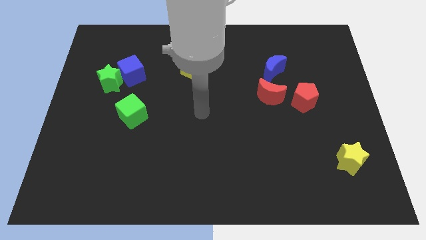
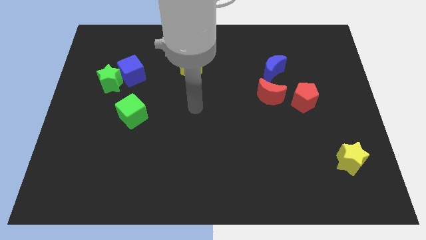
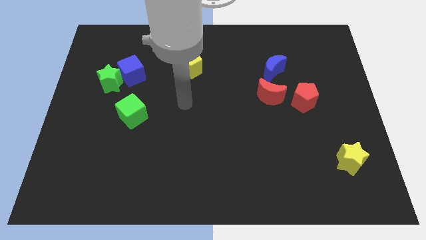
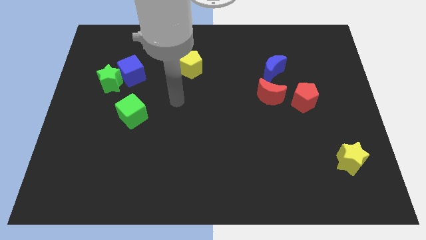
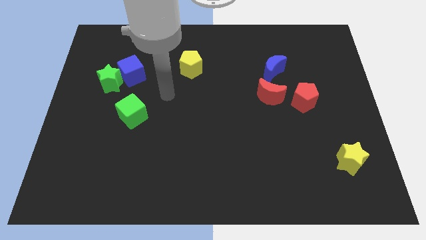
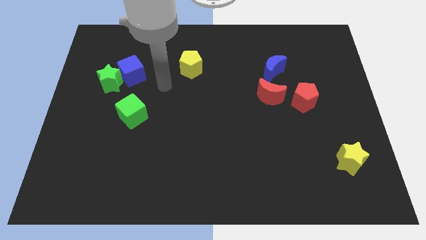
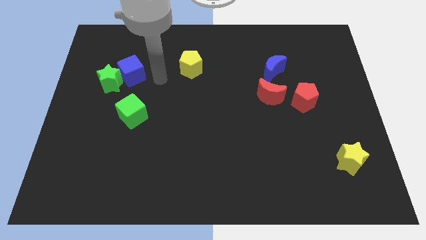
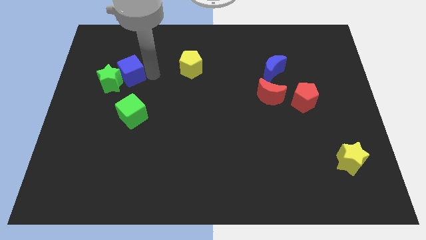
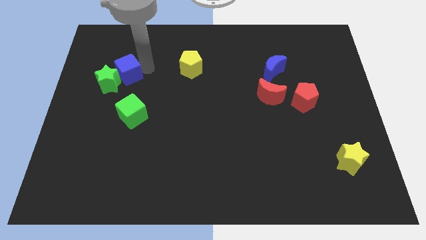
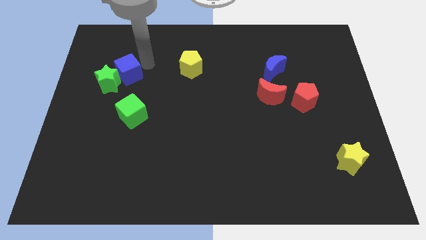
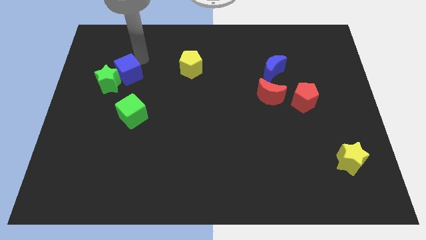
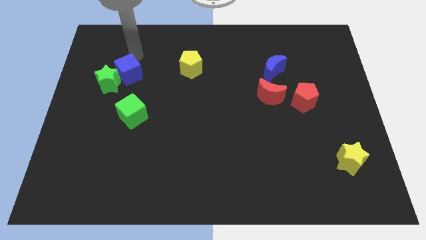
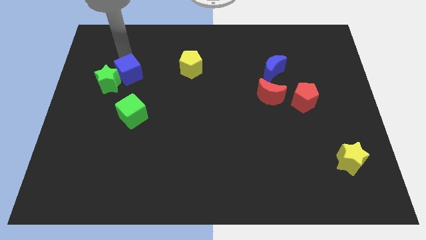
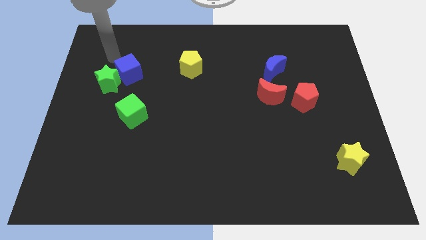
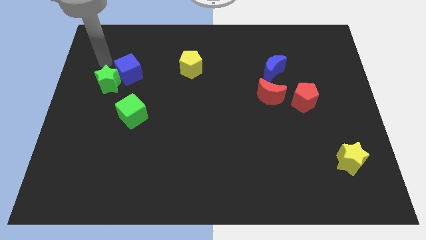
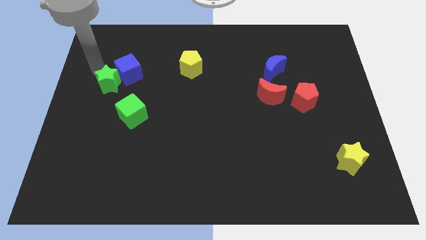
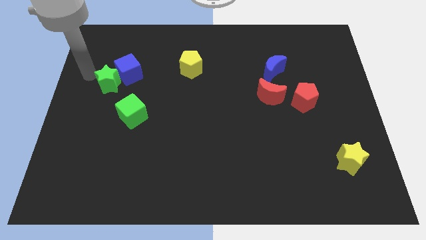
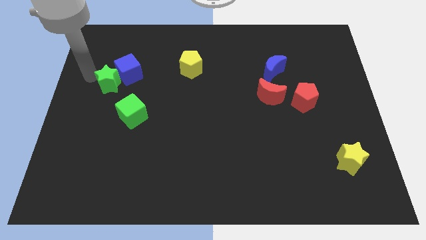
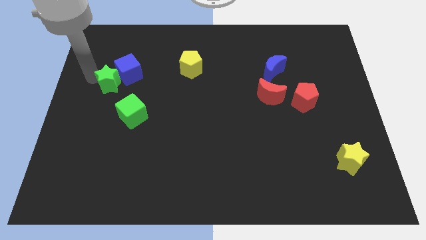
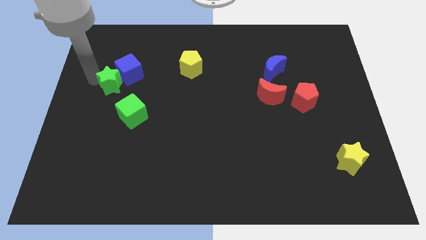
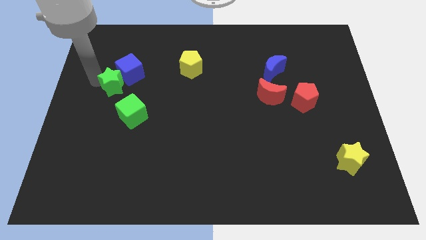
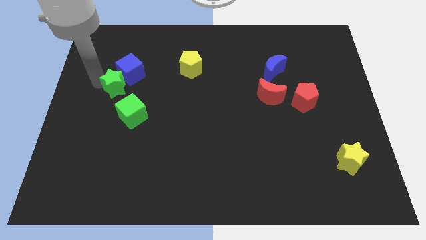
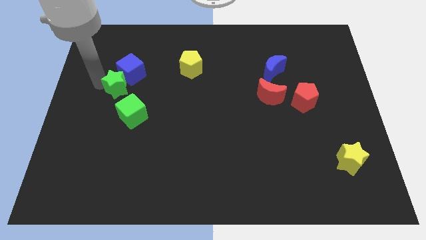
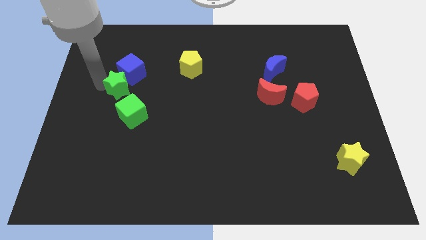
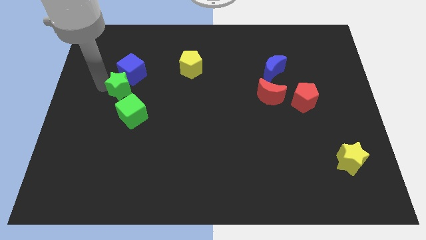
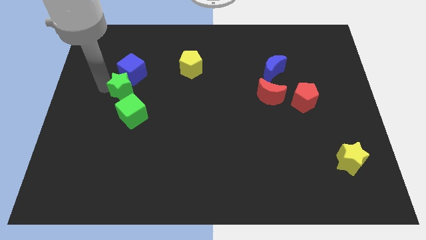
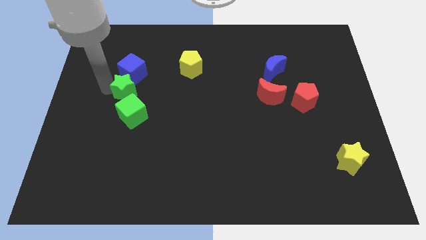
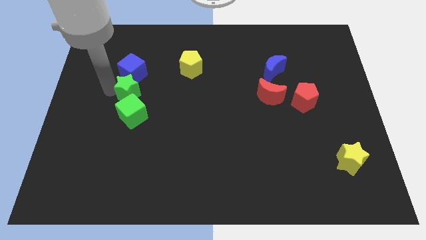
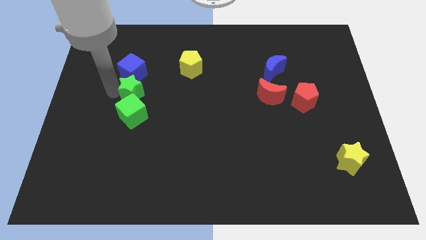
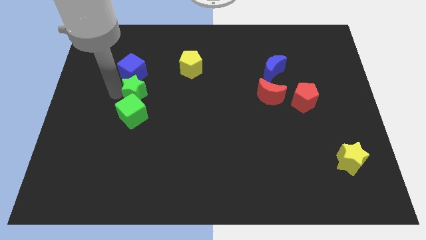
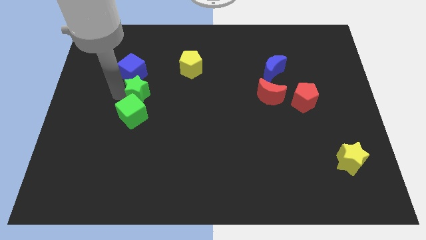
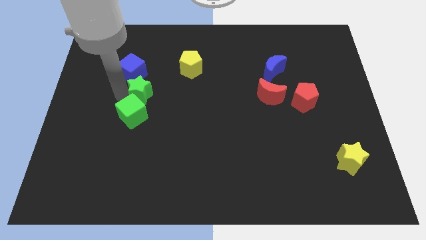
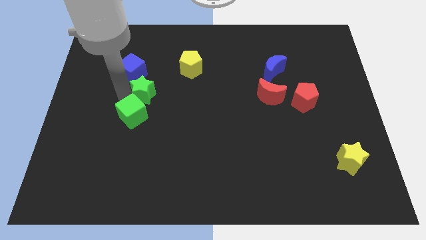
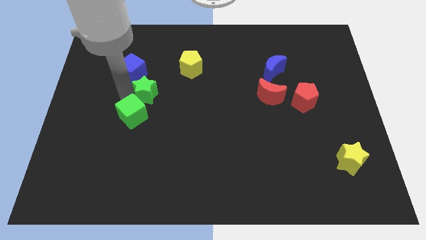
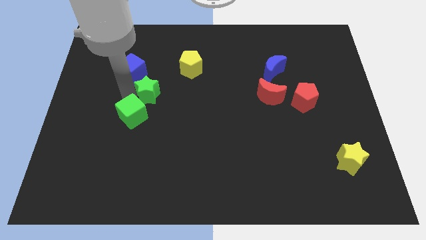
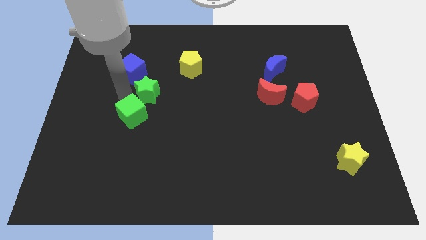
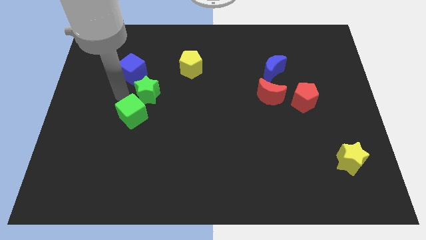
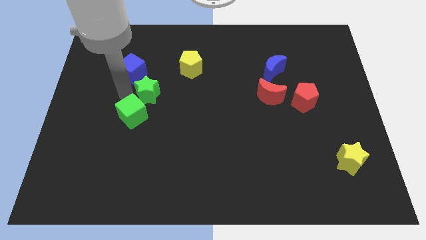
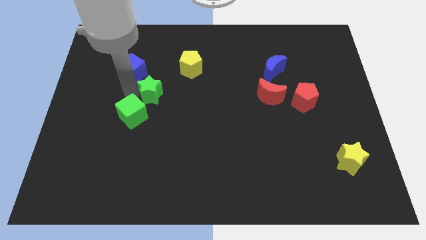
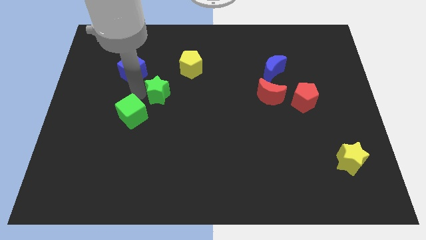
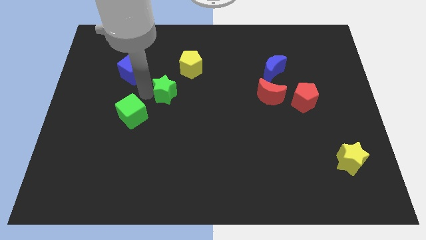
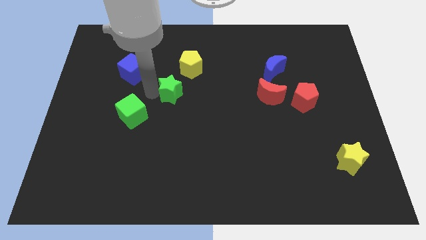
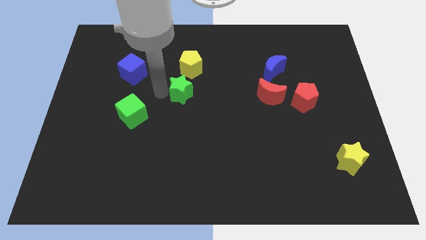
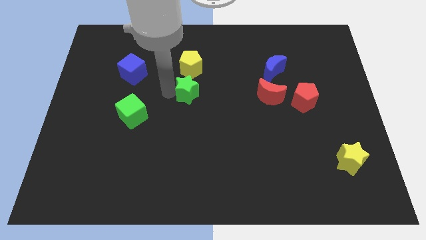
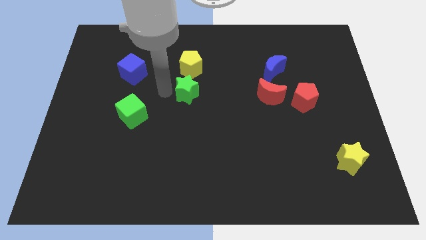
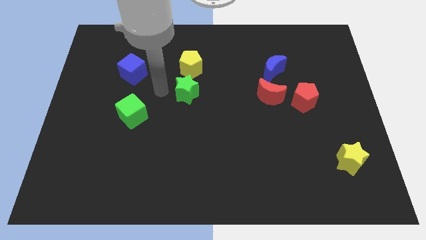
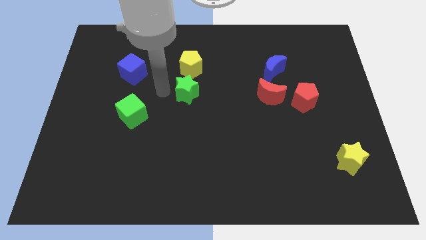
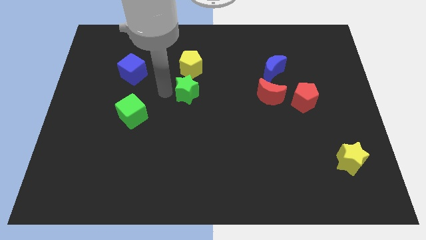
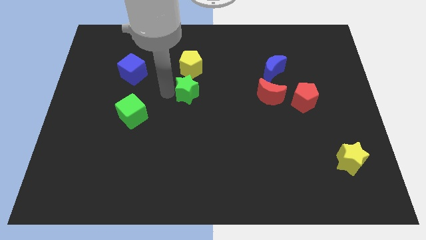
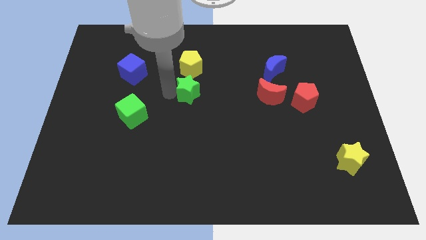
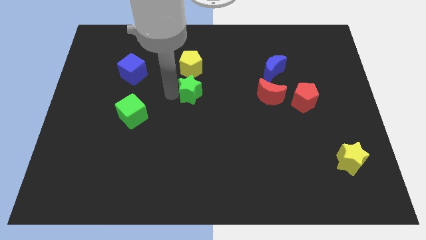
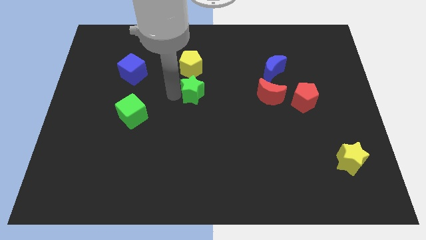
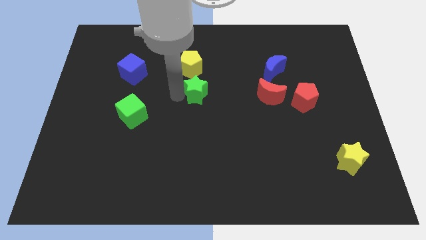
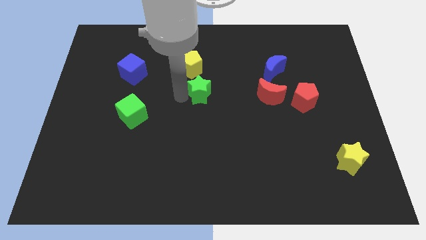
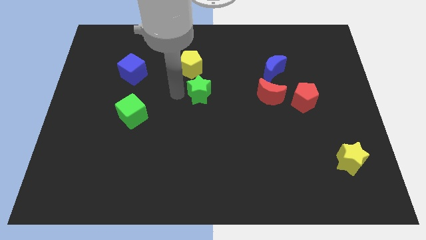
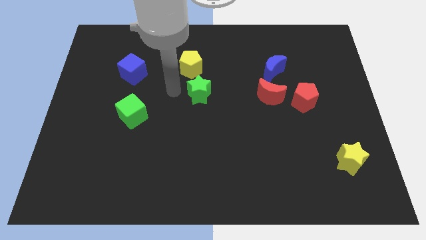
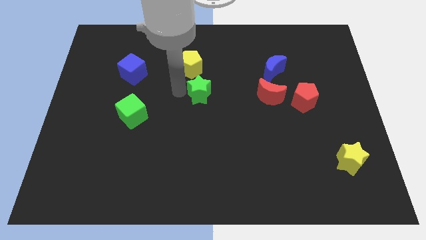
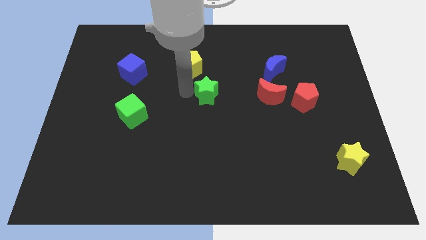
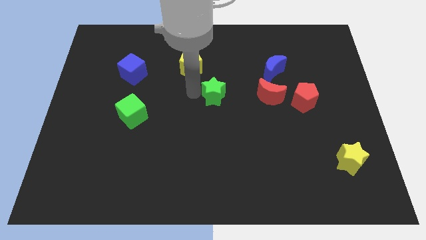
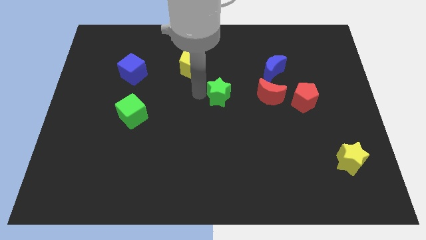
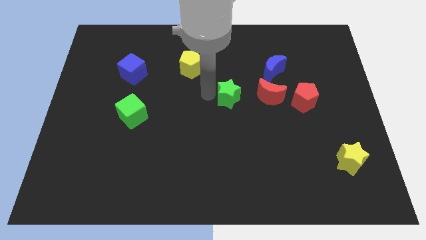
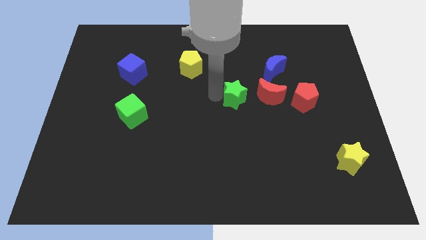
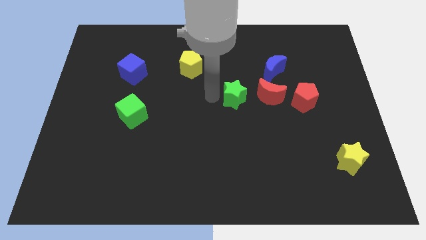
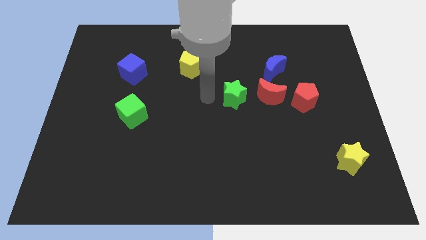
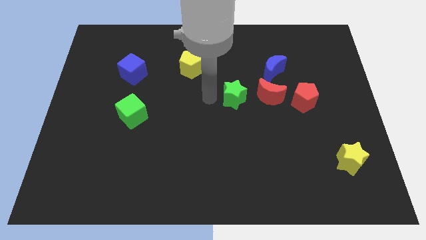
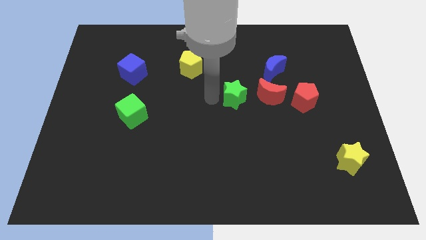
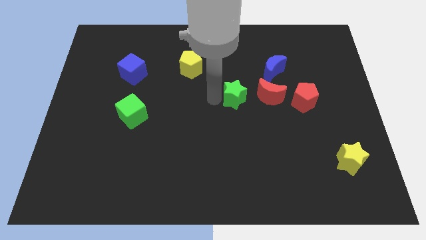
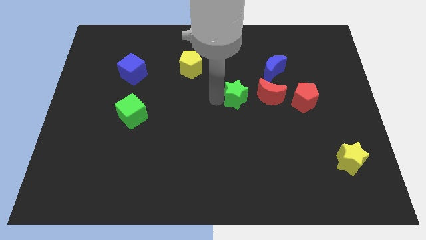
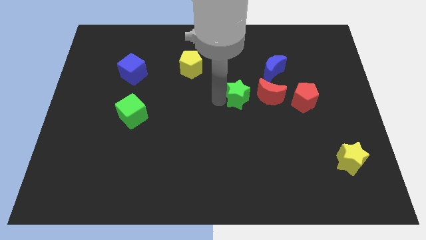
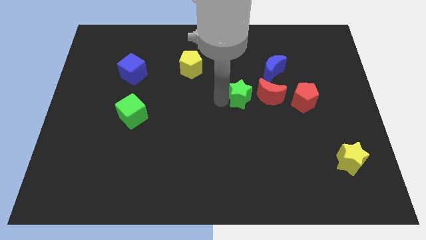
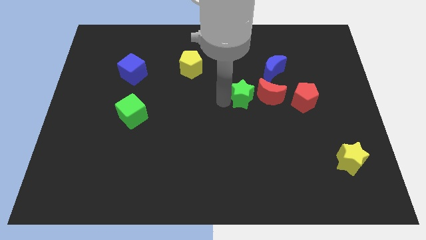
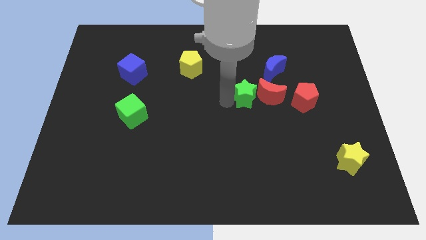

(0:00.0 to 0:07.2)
slide the green star close to the red moon
